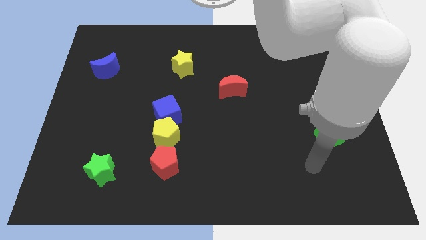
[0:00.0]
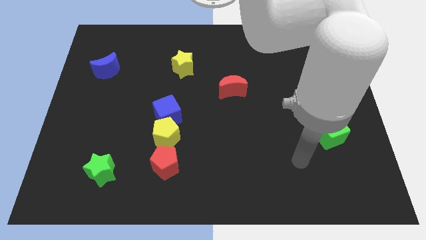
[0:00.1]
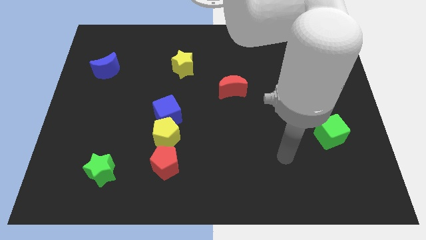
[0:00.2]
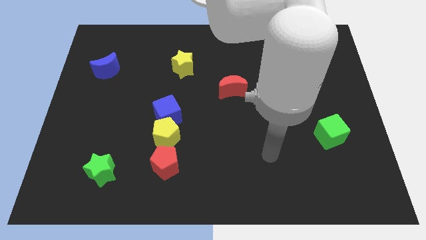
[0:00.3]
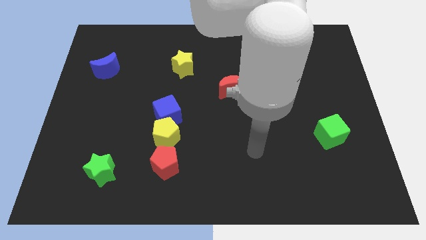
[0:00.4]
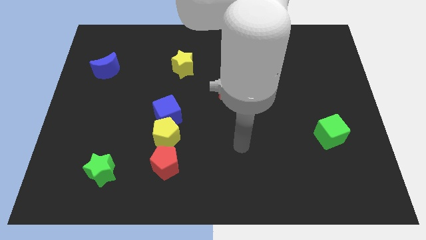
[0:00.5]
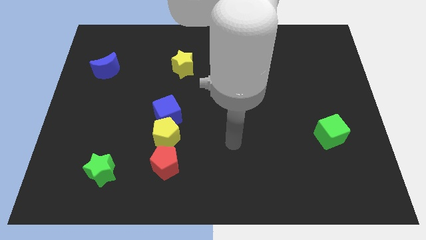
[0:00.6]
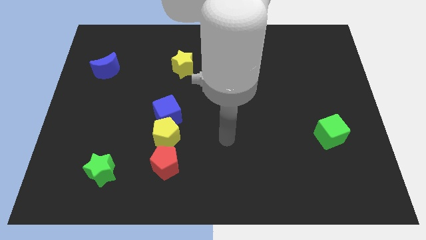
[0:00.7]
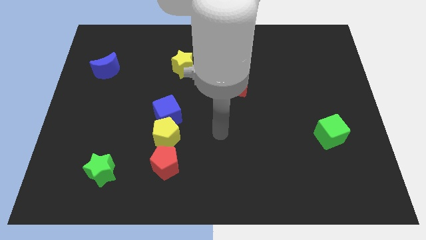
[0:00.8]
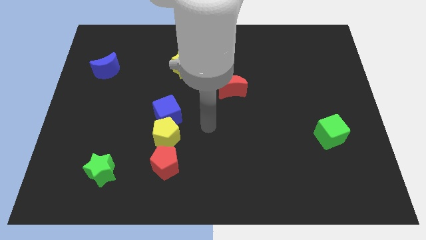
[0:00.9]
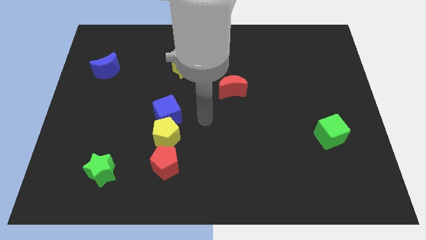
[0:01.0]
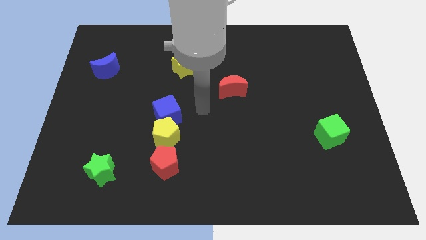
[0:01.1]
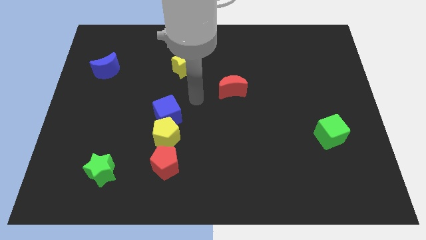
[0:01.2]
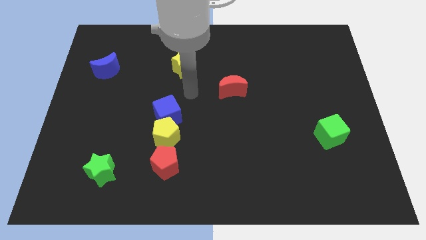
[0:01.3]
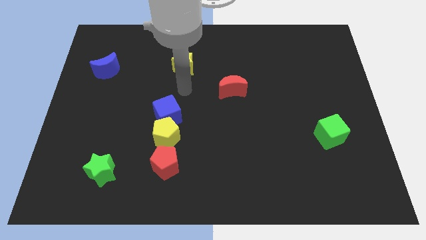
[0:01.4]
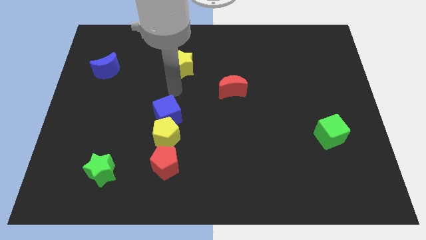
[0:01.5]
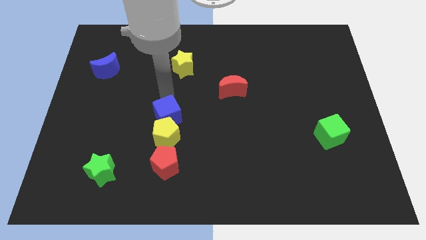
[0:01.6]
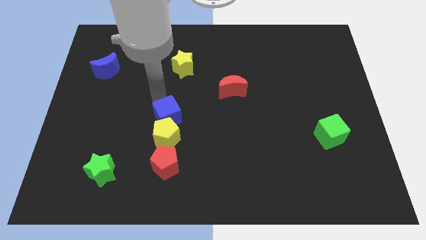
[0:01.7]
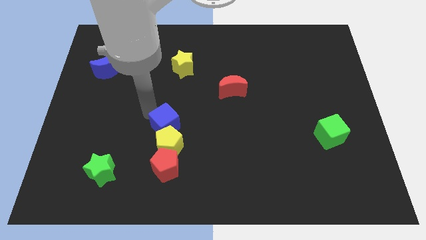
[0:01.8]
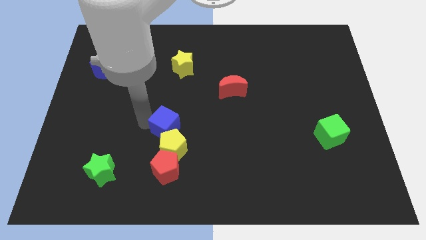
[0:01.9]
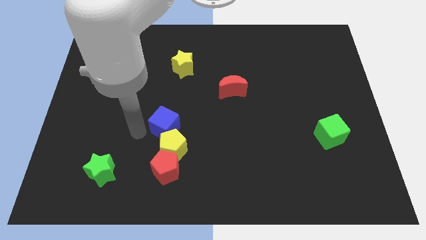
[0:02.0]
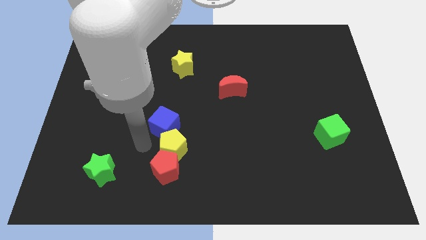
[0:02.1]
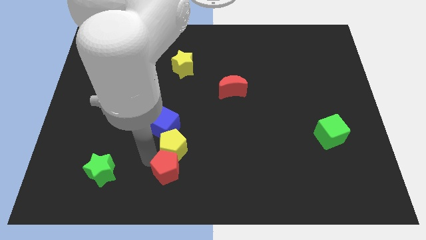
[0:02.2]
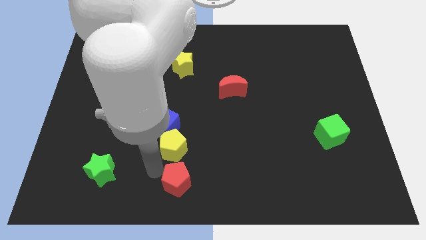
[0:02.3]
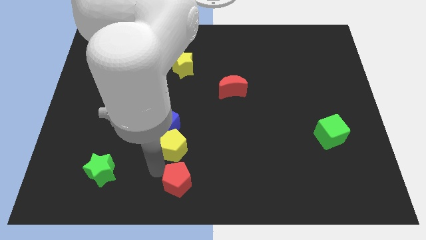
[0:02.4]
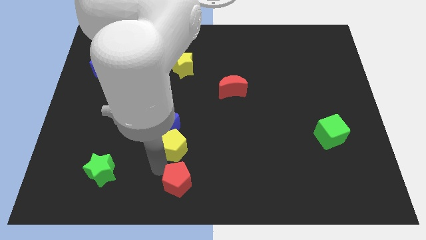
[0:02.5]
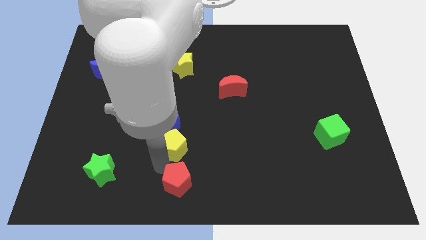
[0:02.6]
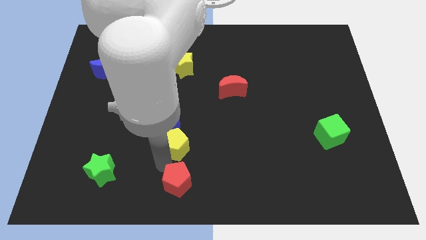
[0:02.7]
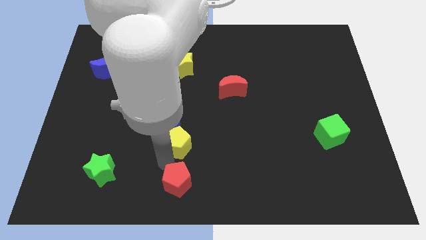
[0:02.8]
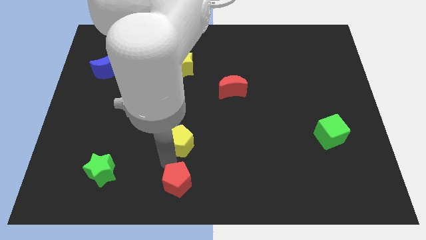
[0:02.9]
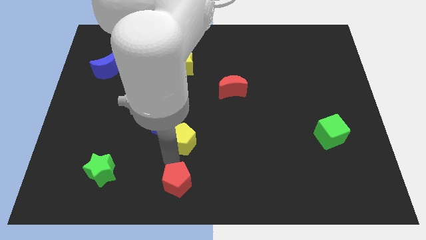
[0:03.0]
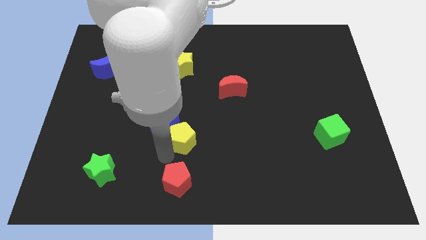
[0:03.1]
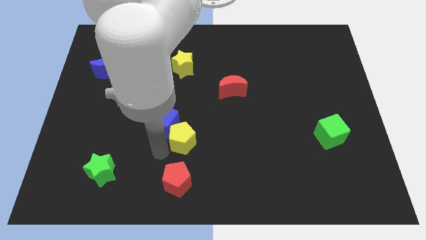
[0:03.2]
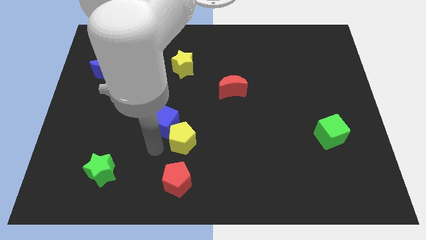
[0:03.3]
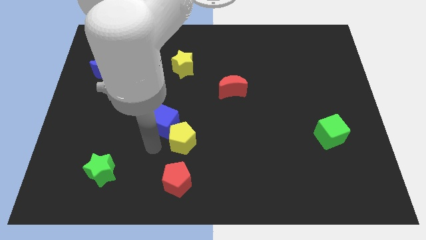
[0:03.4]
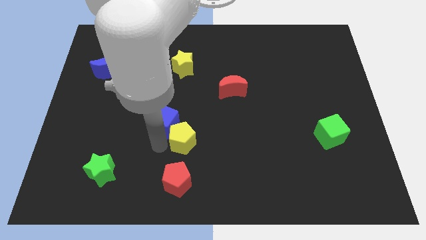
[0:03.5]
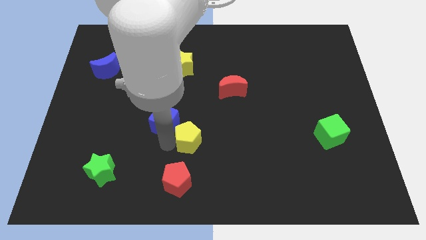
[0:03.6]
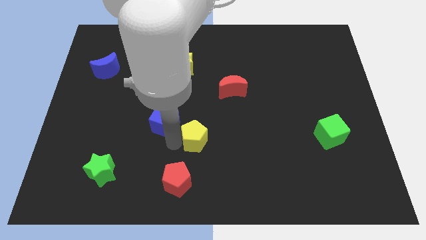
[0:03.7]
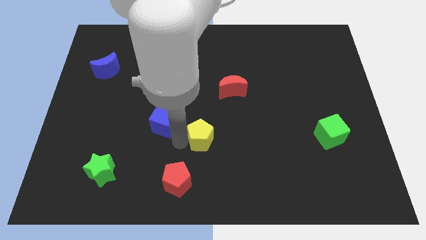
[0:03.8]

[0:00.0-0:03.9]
push the yellow pentagon somewhat right

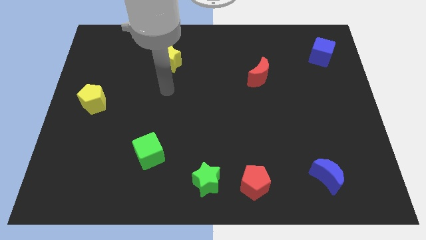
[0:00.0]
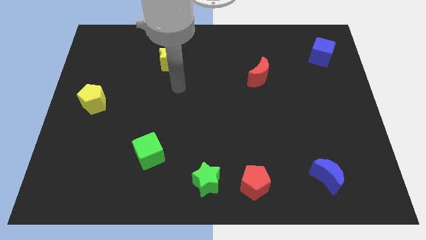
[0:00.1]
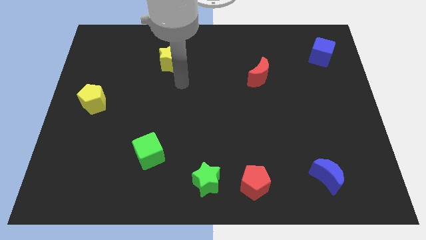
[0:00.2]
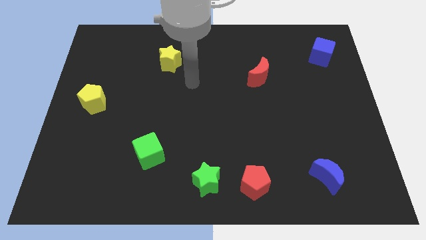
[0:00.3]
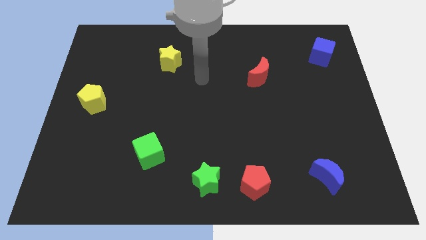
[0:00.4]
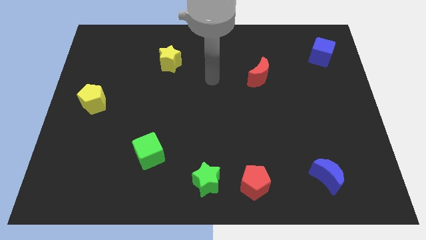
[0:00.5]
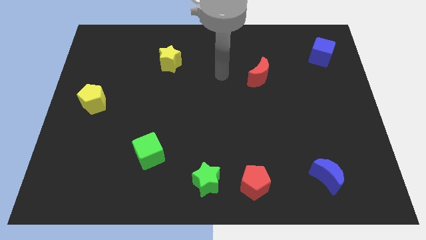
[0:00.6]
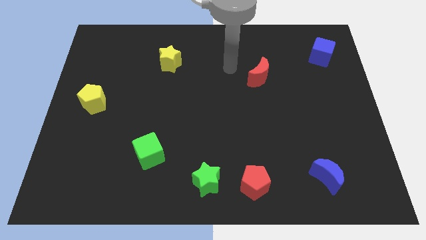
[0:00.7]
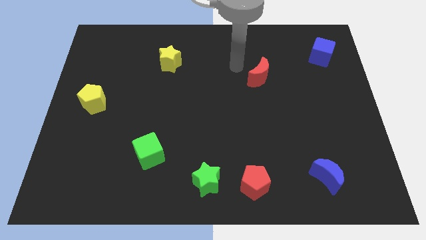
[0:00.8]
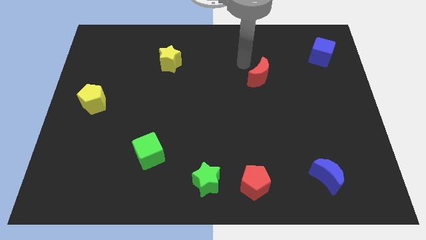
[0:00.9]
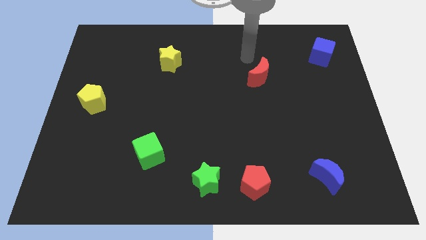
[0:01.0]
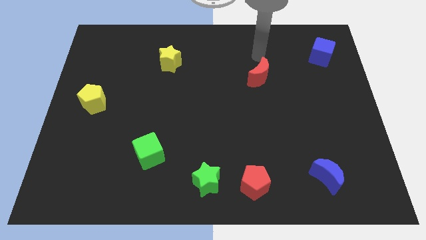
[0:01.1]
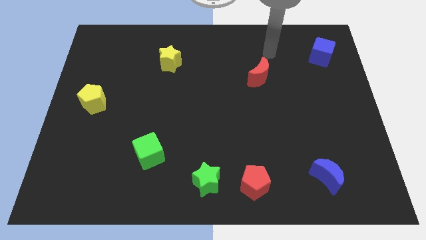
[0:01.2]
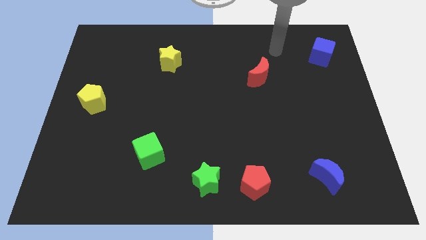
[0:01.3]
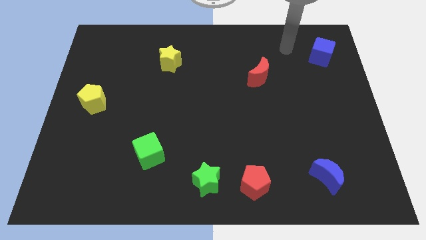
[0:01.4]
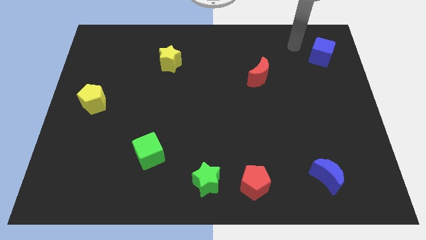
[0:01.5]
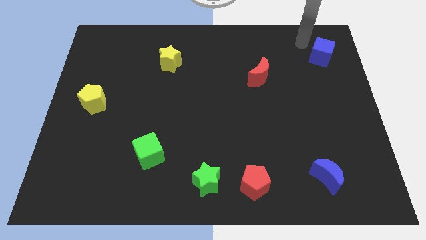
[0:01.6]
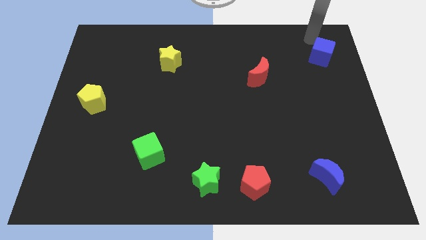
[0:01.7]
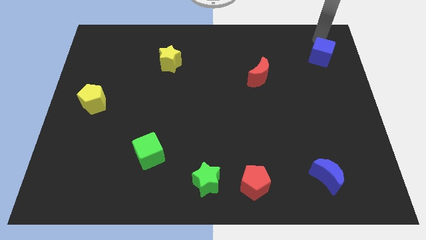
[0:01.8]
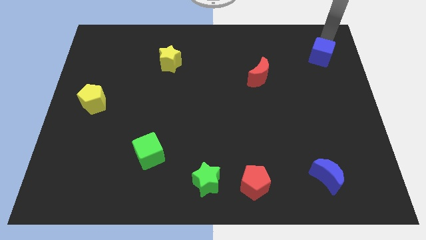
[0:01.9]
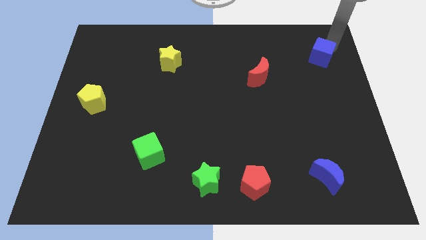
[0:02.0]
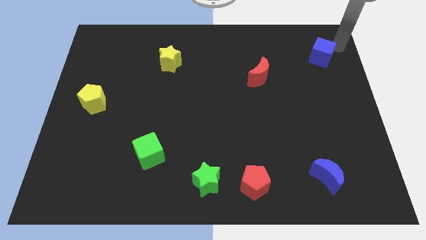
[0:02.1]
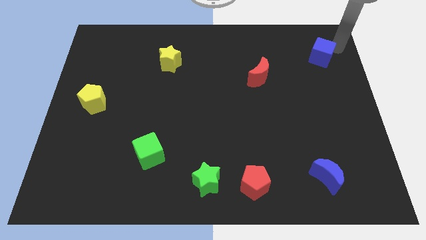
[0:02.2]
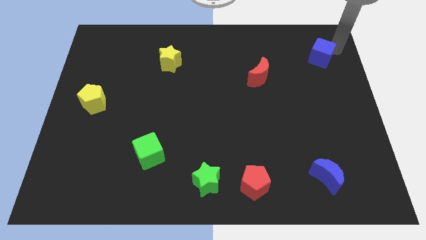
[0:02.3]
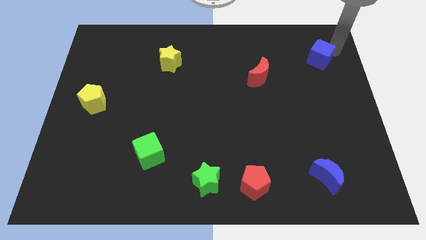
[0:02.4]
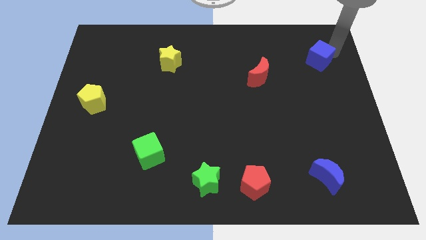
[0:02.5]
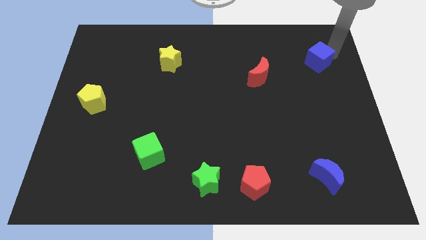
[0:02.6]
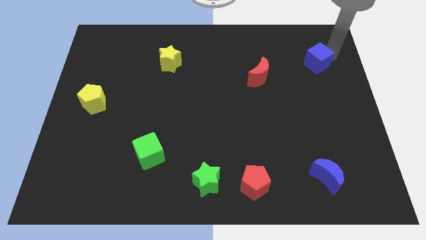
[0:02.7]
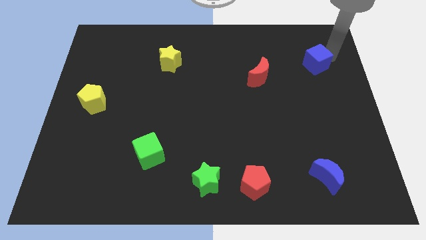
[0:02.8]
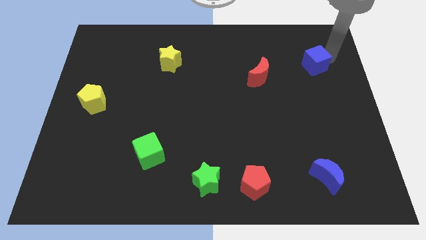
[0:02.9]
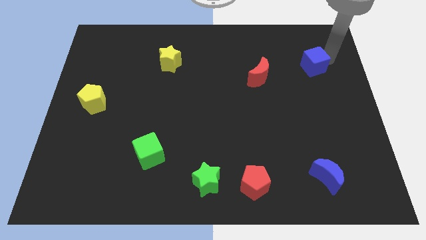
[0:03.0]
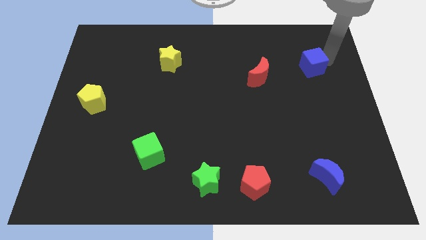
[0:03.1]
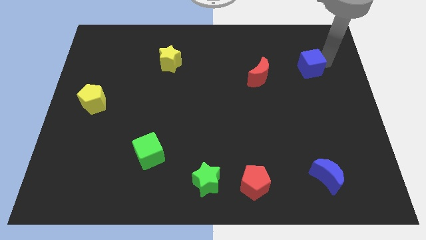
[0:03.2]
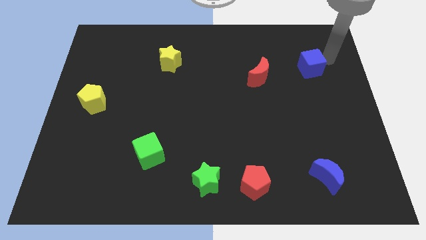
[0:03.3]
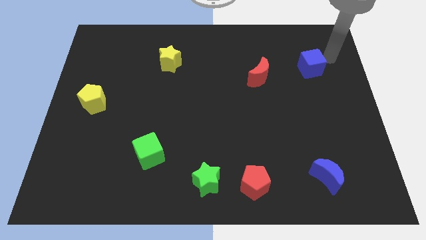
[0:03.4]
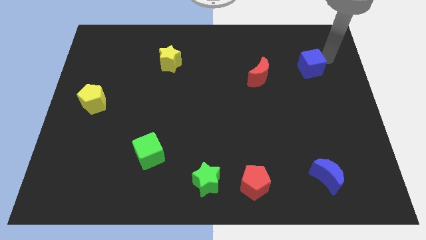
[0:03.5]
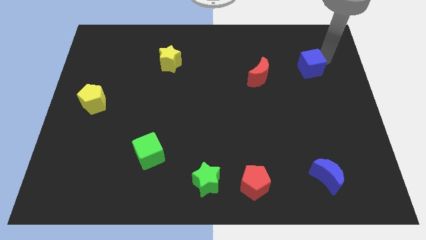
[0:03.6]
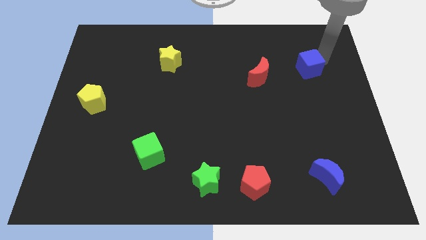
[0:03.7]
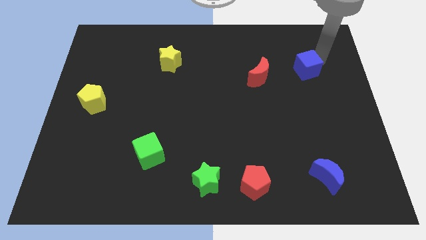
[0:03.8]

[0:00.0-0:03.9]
push the blue cube a bit diagonally down and to the left
